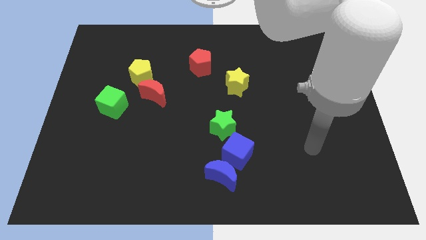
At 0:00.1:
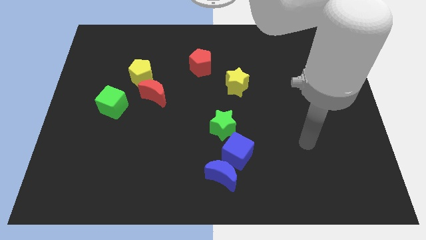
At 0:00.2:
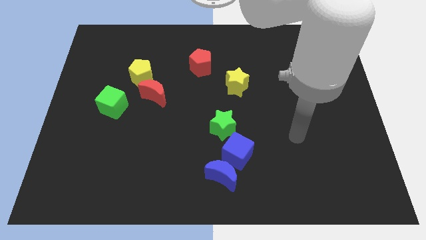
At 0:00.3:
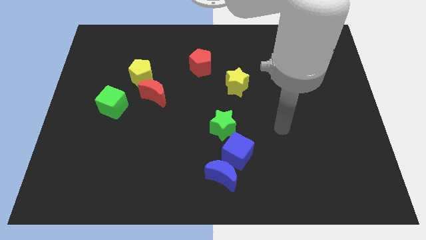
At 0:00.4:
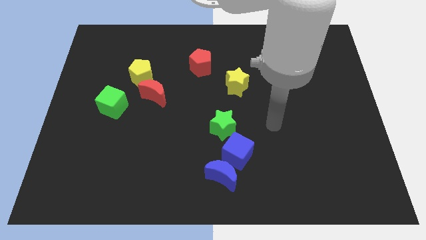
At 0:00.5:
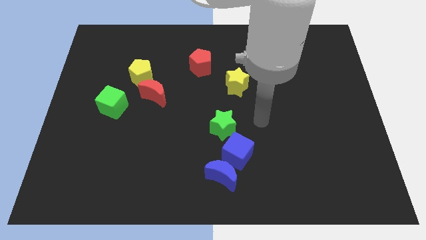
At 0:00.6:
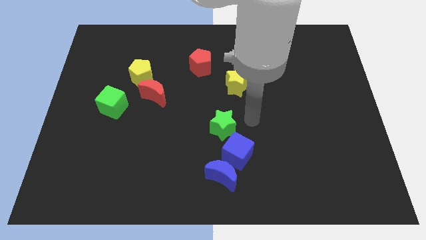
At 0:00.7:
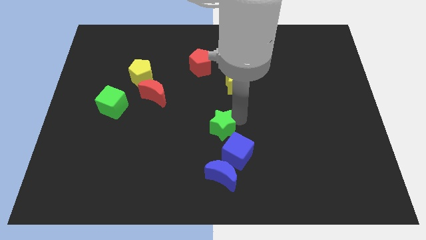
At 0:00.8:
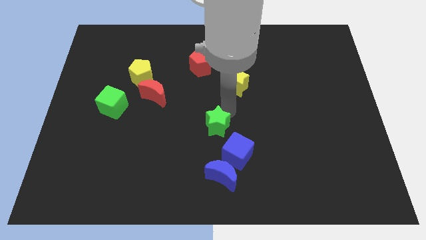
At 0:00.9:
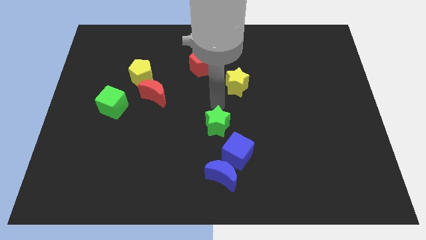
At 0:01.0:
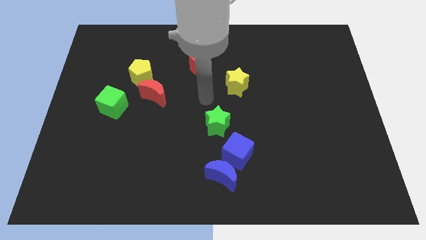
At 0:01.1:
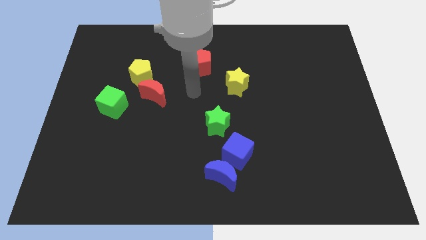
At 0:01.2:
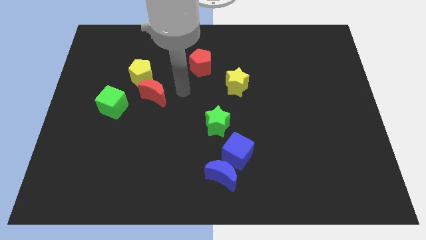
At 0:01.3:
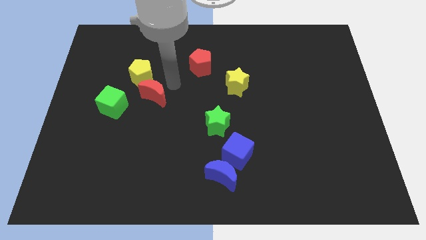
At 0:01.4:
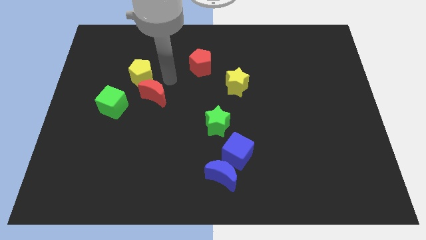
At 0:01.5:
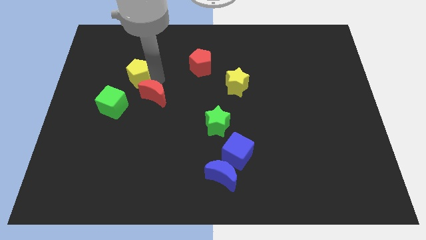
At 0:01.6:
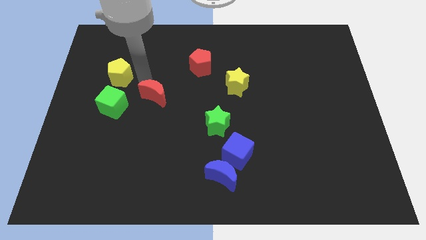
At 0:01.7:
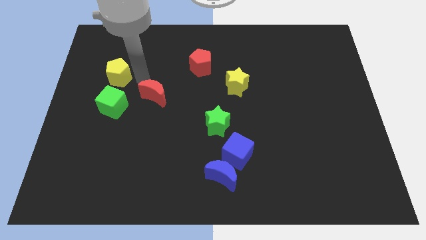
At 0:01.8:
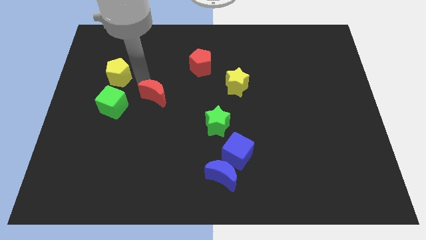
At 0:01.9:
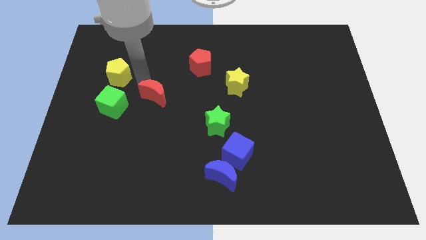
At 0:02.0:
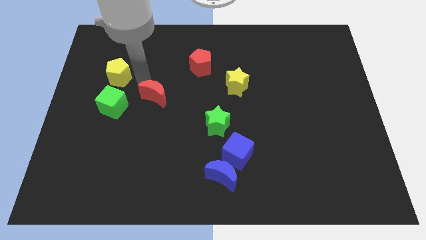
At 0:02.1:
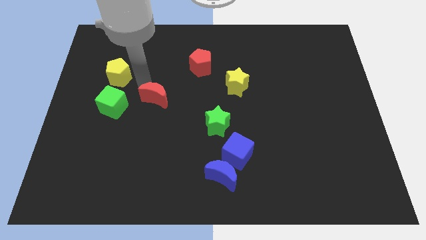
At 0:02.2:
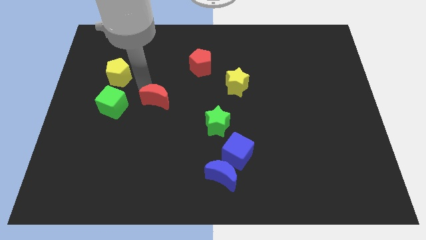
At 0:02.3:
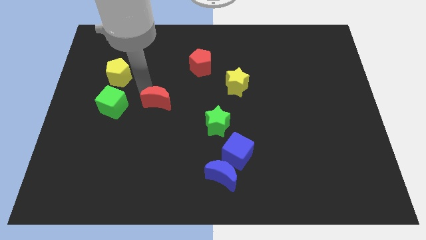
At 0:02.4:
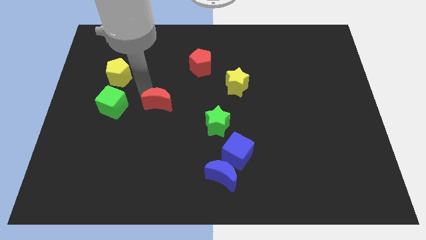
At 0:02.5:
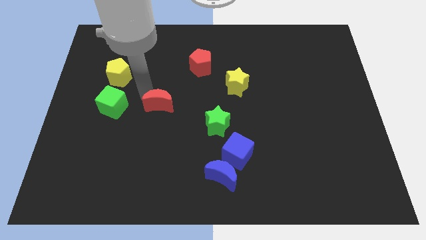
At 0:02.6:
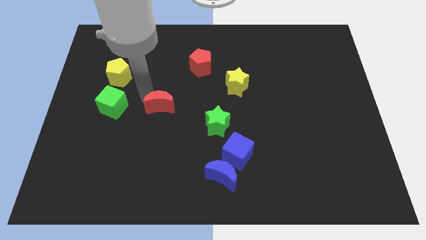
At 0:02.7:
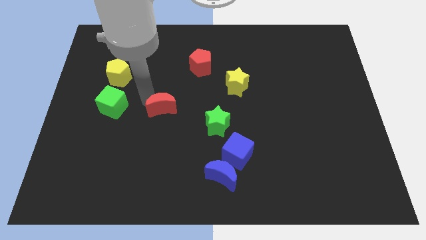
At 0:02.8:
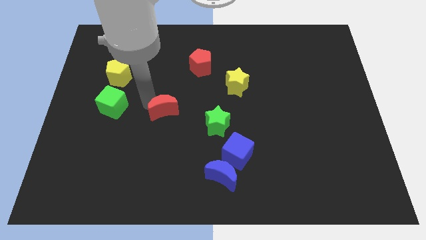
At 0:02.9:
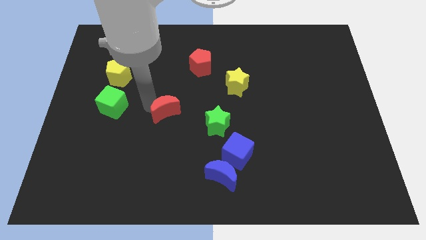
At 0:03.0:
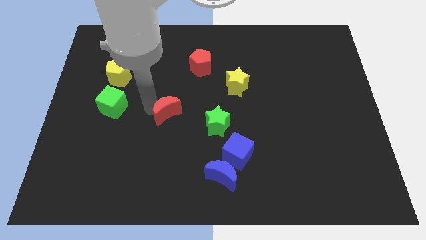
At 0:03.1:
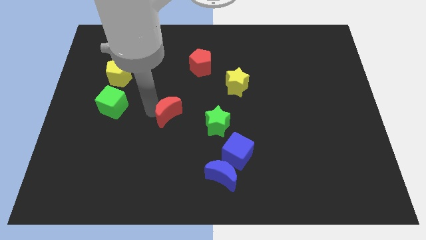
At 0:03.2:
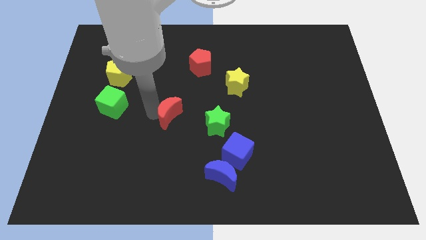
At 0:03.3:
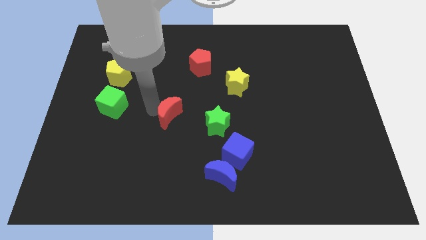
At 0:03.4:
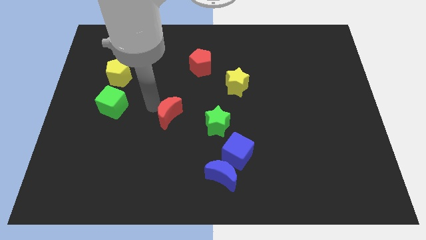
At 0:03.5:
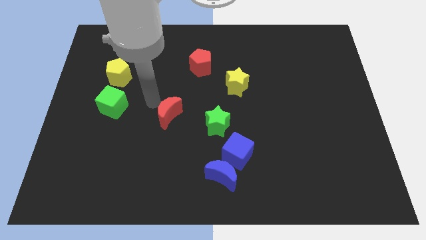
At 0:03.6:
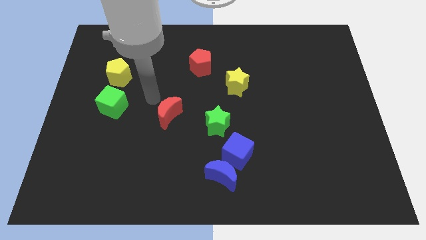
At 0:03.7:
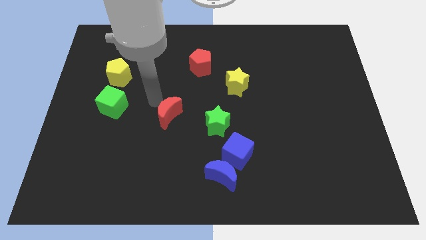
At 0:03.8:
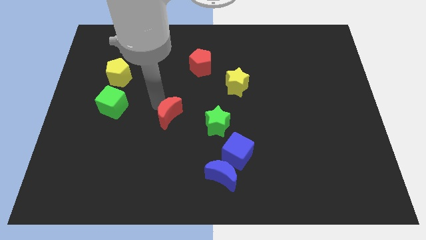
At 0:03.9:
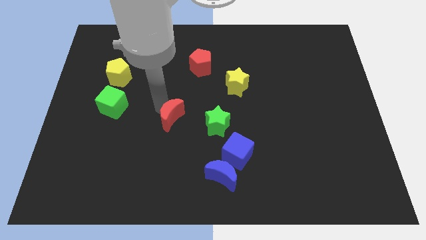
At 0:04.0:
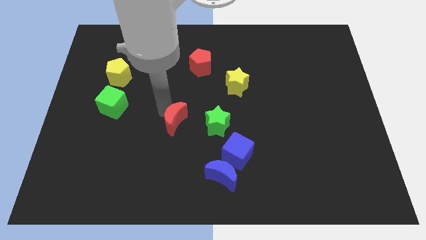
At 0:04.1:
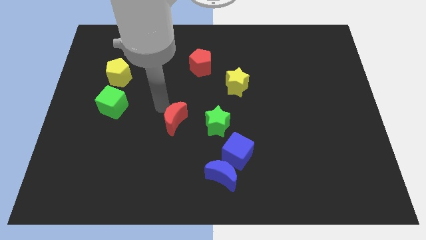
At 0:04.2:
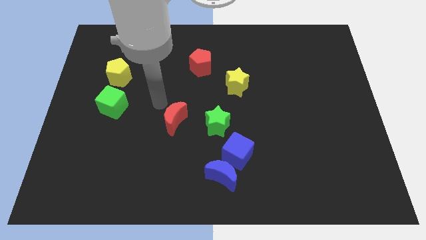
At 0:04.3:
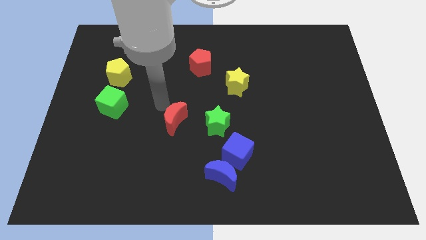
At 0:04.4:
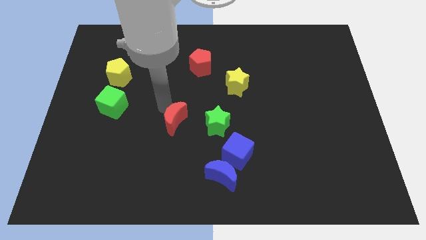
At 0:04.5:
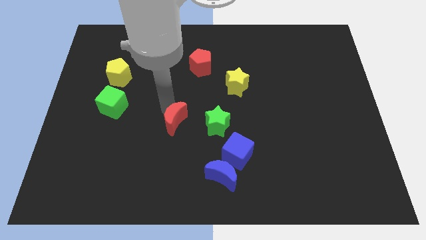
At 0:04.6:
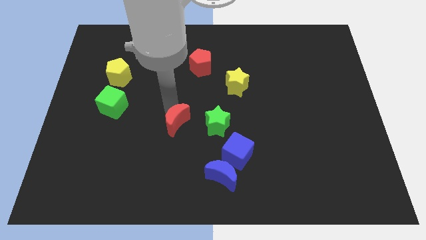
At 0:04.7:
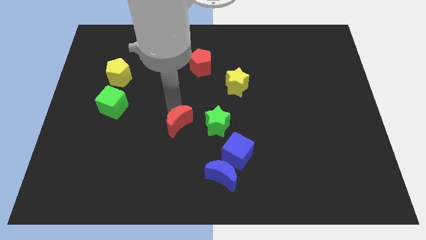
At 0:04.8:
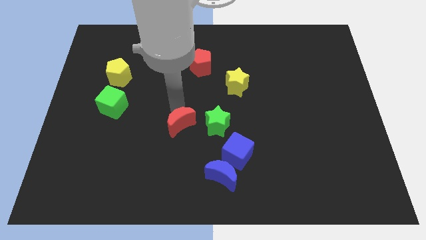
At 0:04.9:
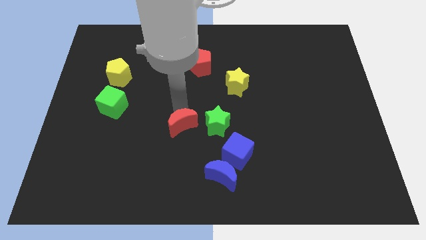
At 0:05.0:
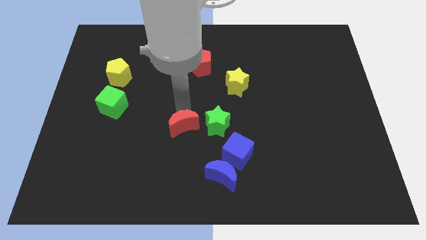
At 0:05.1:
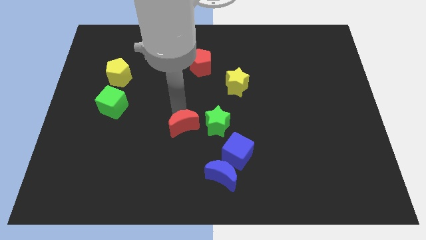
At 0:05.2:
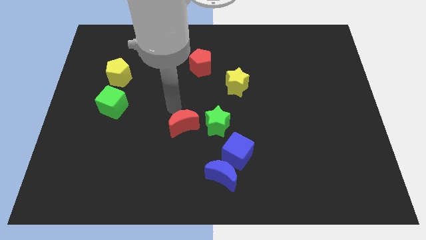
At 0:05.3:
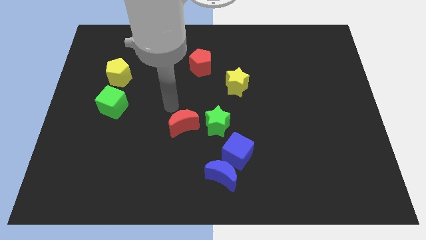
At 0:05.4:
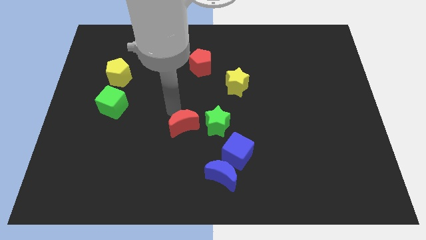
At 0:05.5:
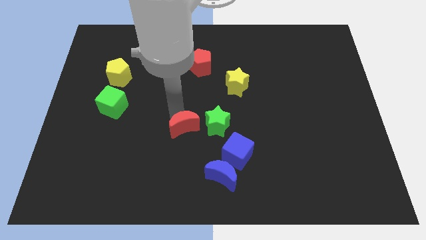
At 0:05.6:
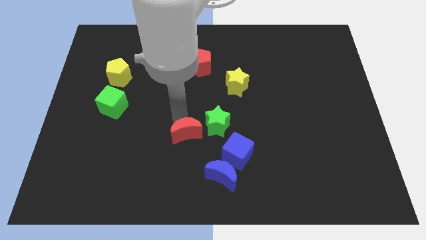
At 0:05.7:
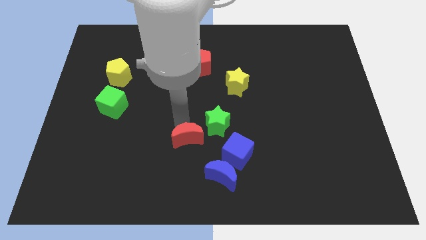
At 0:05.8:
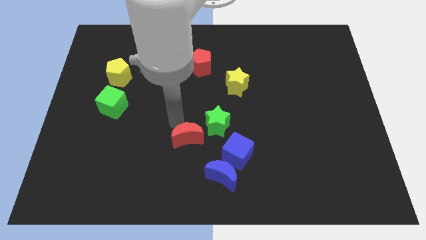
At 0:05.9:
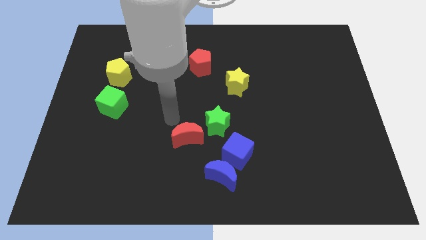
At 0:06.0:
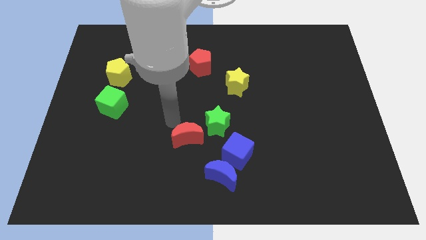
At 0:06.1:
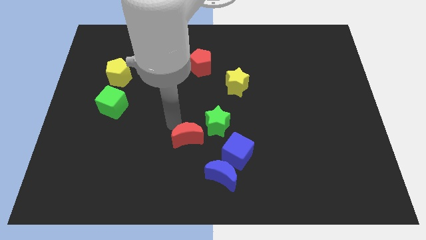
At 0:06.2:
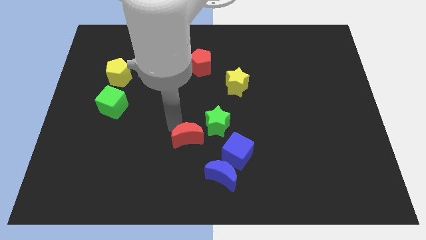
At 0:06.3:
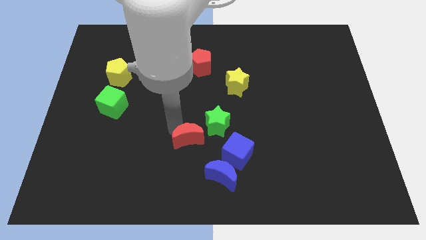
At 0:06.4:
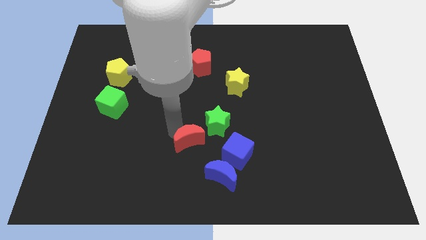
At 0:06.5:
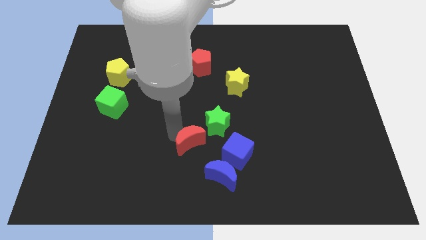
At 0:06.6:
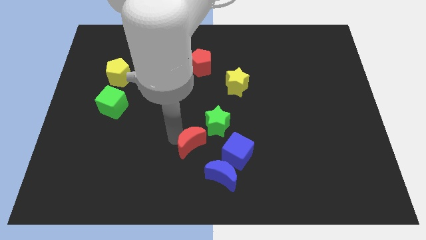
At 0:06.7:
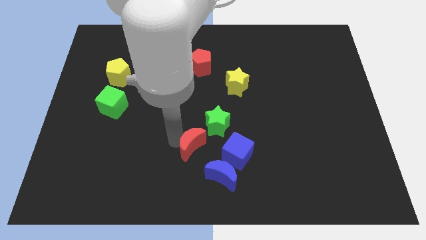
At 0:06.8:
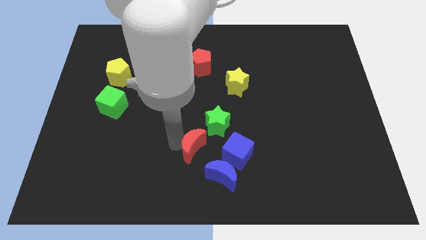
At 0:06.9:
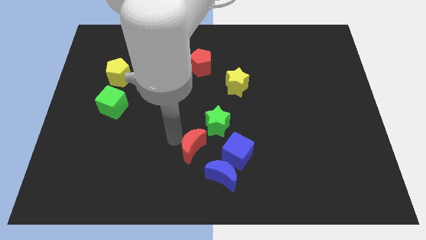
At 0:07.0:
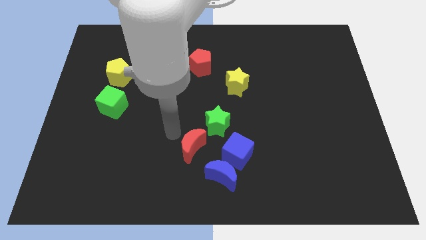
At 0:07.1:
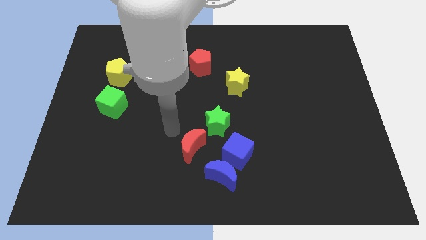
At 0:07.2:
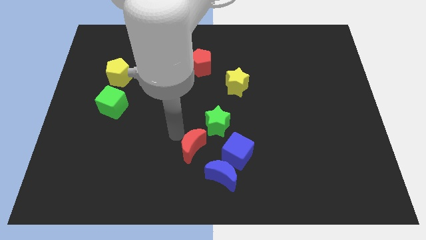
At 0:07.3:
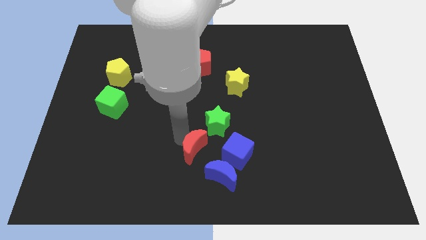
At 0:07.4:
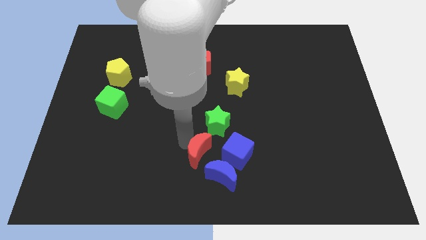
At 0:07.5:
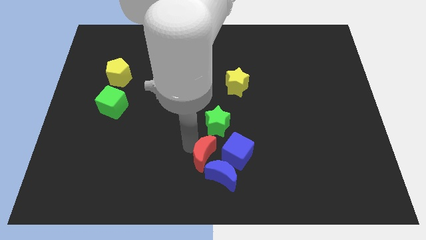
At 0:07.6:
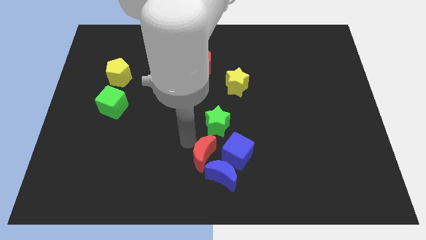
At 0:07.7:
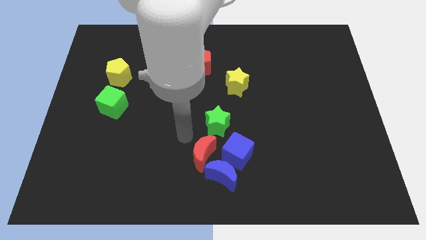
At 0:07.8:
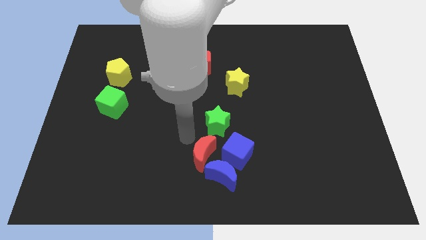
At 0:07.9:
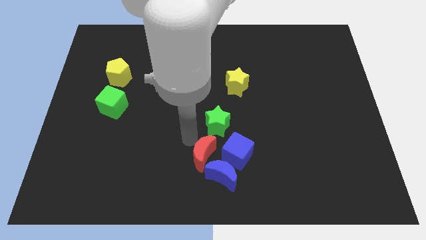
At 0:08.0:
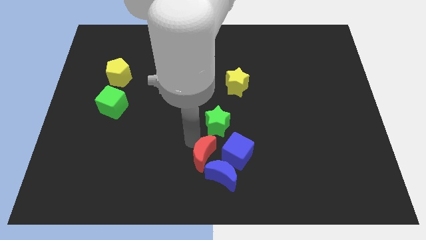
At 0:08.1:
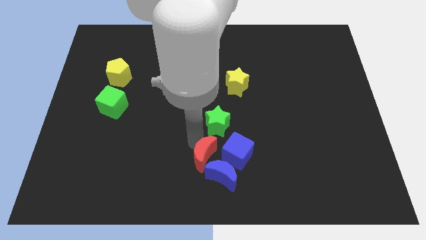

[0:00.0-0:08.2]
slide the red moon towards the blue moon
